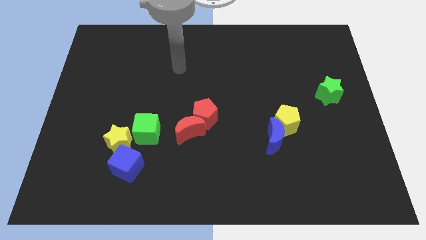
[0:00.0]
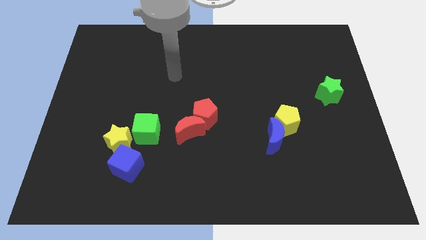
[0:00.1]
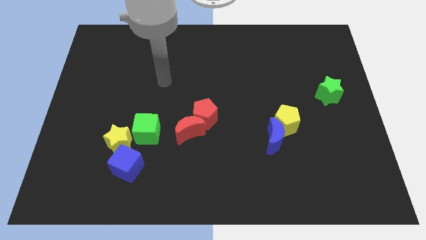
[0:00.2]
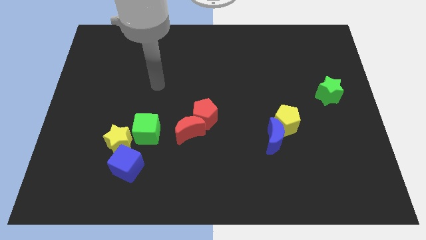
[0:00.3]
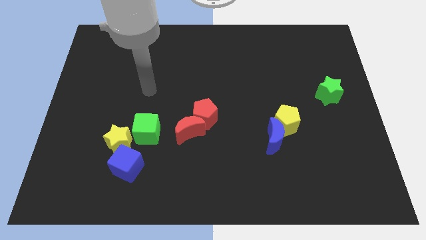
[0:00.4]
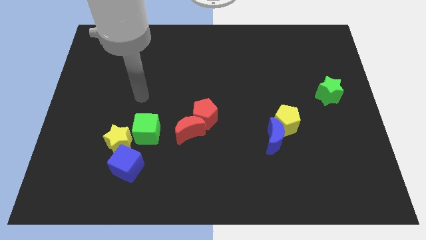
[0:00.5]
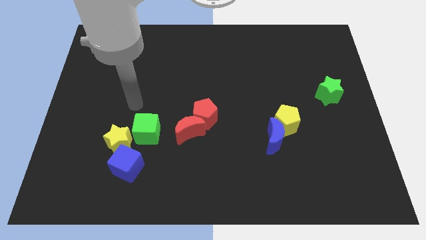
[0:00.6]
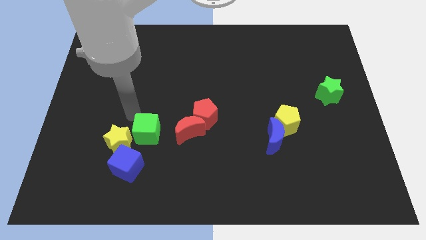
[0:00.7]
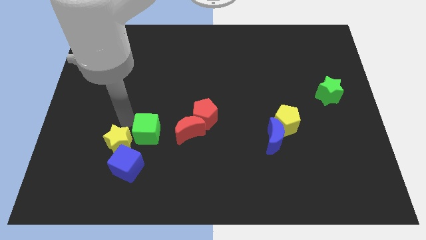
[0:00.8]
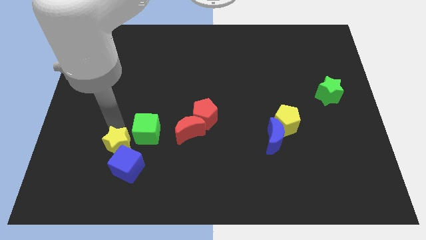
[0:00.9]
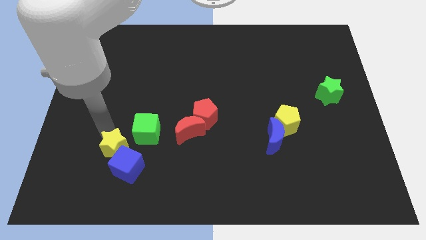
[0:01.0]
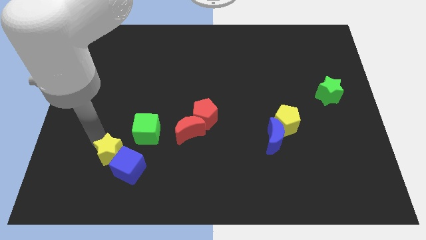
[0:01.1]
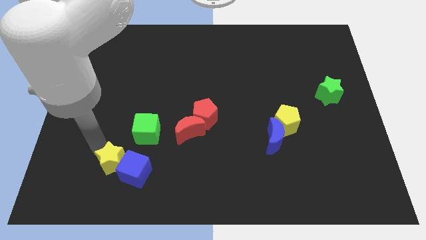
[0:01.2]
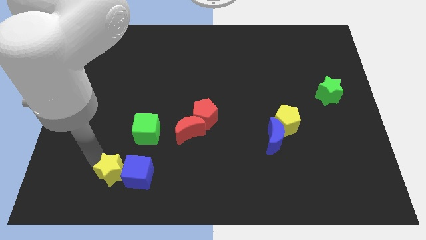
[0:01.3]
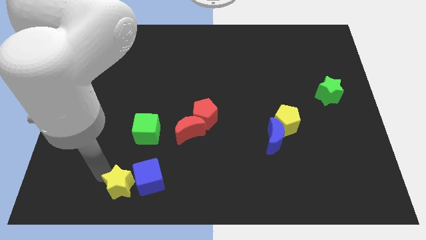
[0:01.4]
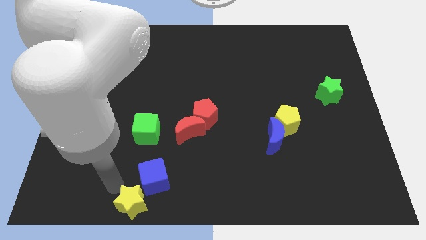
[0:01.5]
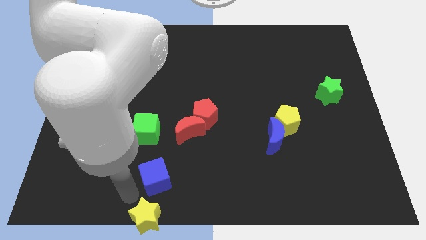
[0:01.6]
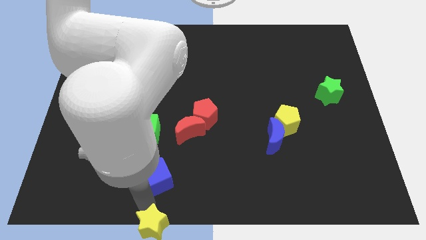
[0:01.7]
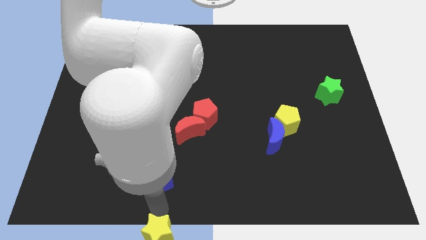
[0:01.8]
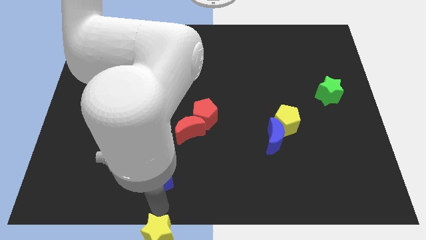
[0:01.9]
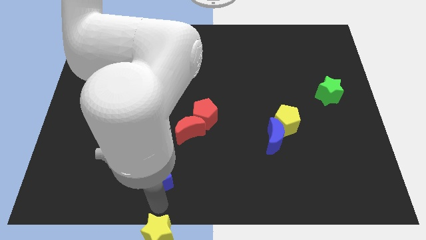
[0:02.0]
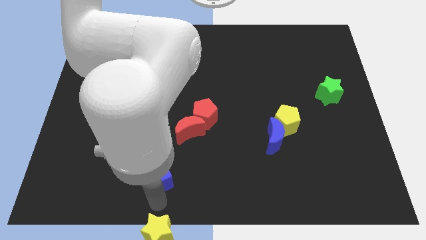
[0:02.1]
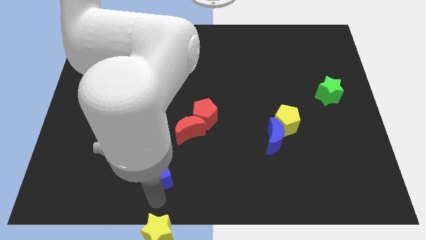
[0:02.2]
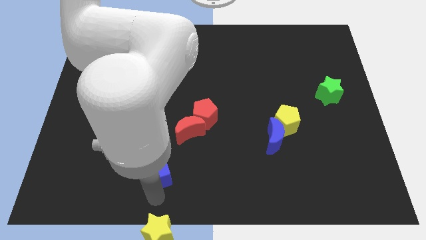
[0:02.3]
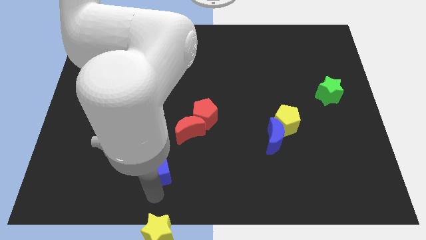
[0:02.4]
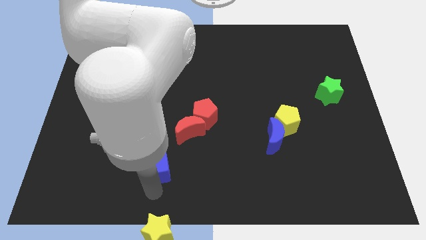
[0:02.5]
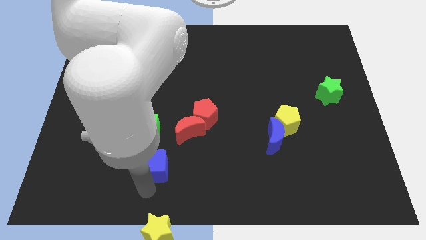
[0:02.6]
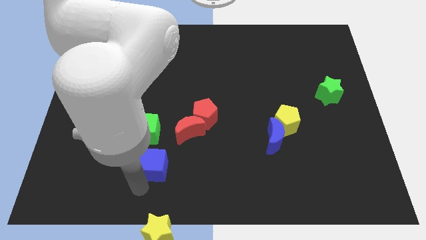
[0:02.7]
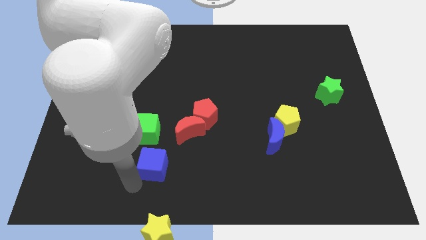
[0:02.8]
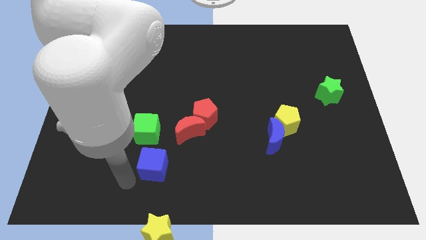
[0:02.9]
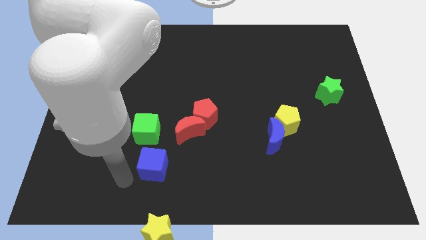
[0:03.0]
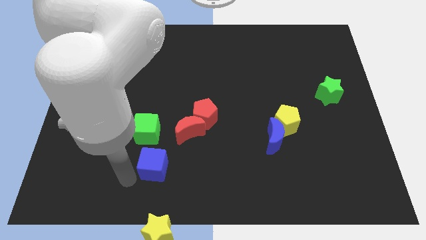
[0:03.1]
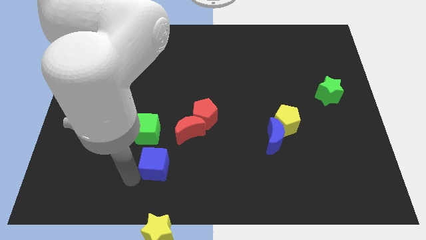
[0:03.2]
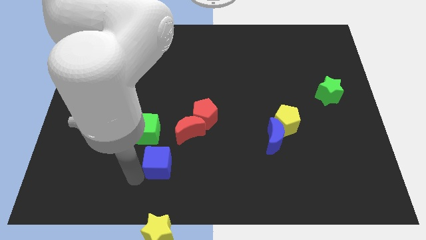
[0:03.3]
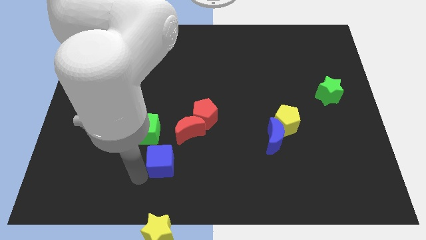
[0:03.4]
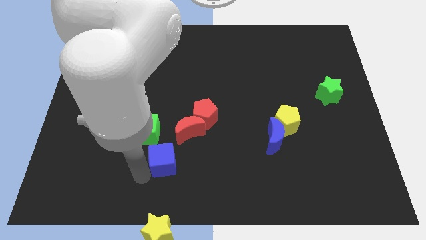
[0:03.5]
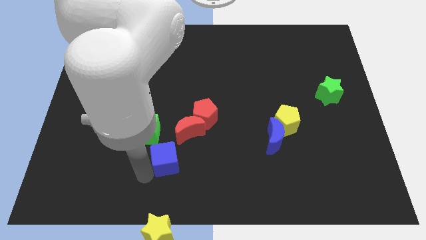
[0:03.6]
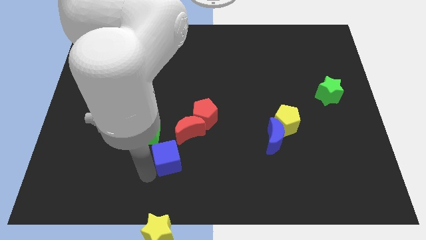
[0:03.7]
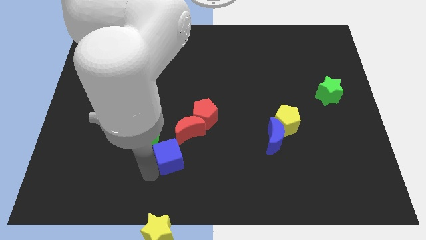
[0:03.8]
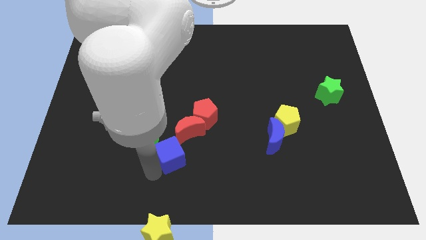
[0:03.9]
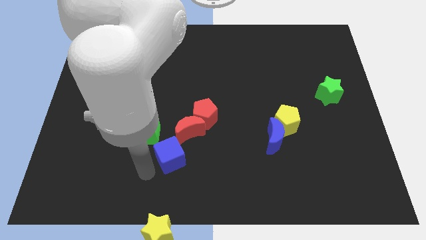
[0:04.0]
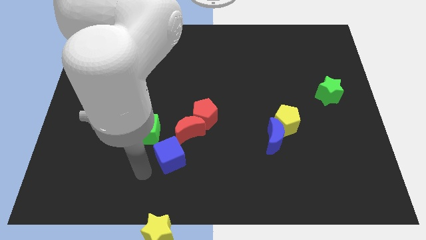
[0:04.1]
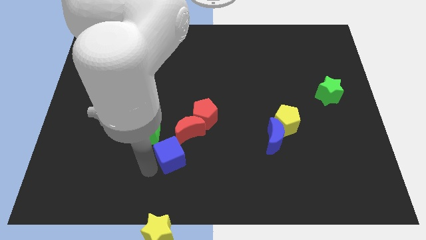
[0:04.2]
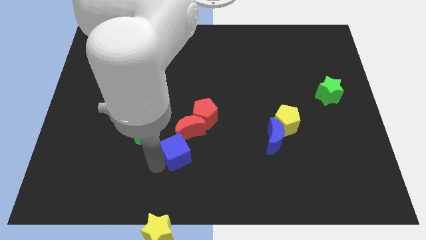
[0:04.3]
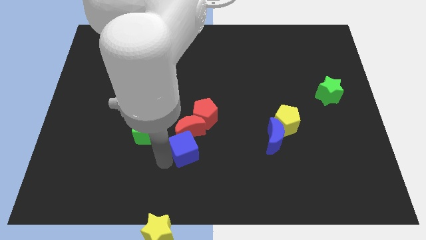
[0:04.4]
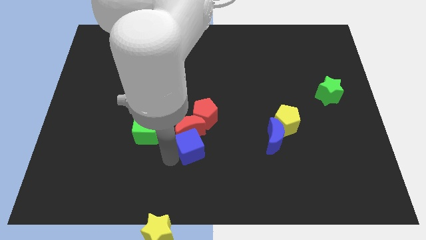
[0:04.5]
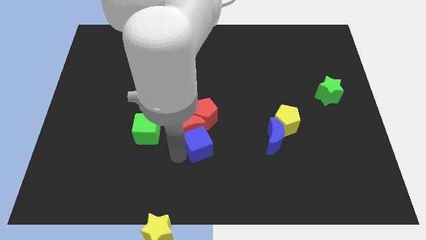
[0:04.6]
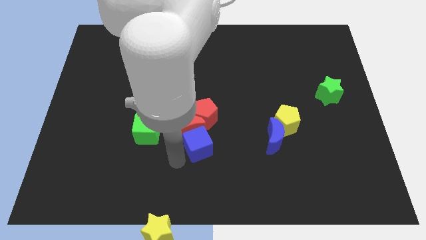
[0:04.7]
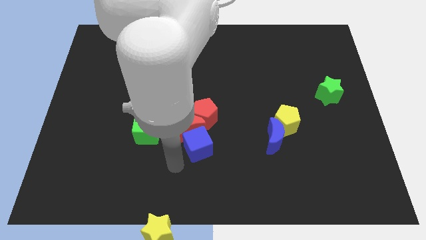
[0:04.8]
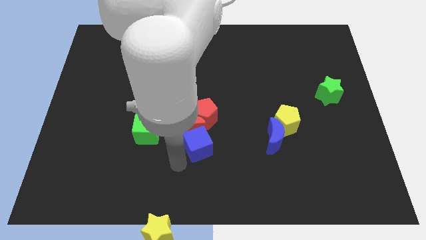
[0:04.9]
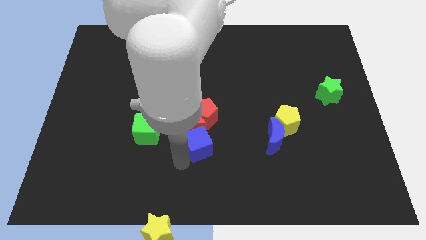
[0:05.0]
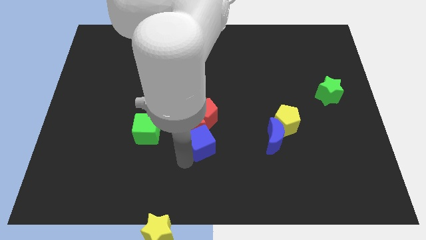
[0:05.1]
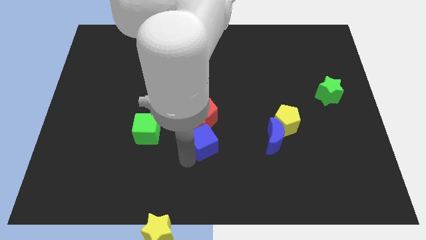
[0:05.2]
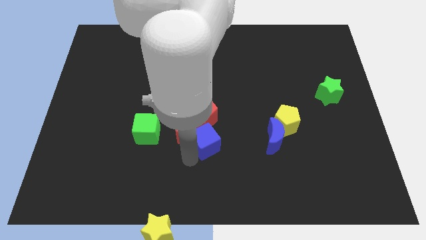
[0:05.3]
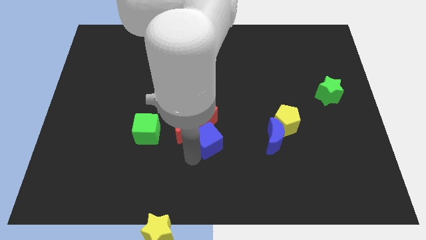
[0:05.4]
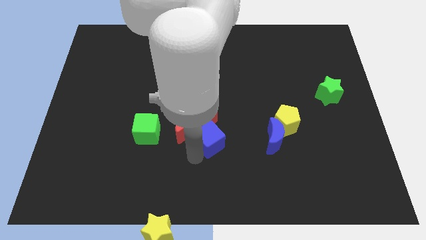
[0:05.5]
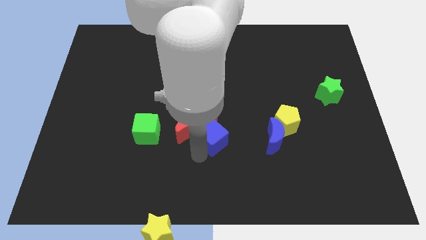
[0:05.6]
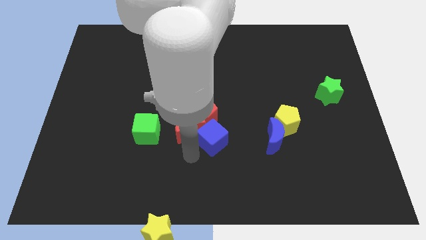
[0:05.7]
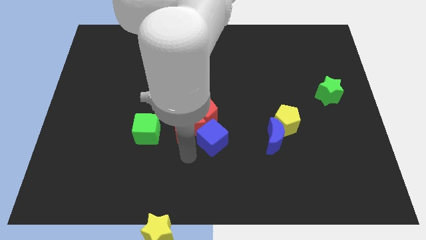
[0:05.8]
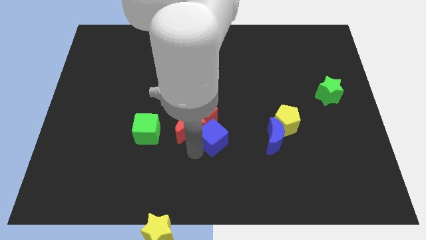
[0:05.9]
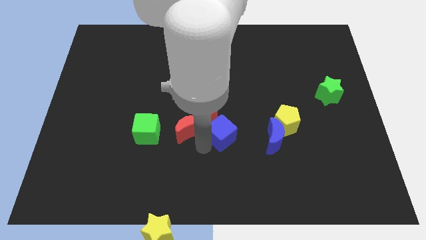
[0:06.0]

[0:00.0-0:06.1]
put the blue cube just left of the yellow pentagon

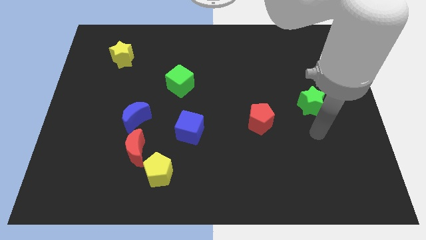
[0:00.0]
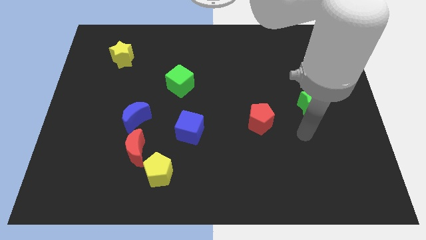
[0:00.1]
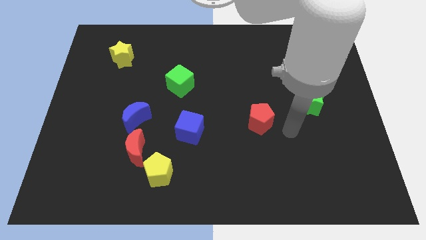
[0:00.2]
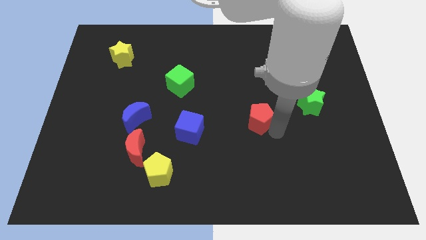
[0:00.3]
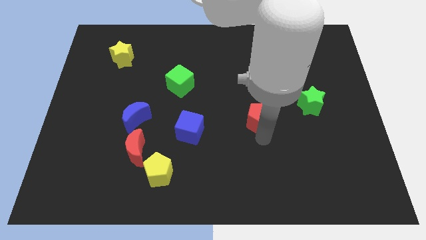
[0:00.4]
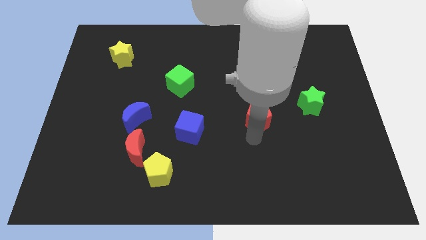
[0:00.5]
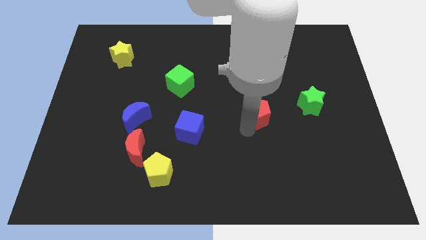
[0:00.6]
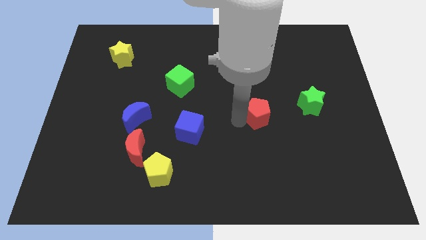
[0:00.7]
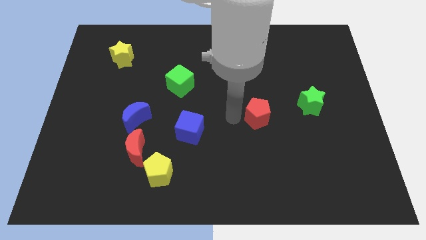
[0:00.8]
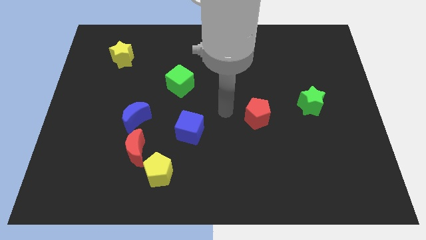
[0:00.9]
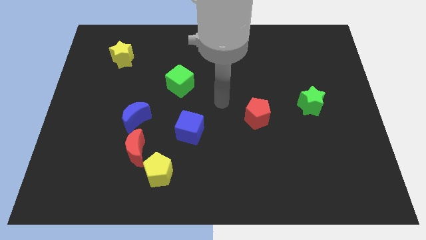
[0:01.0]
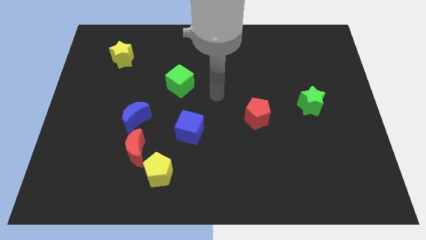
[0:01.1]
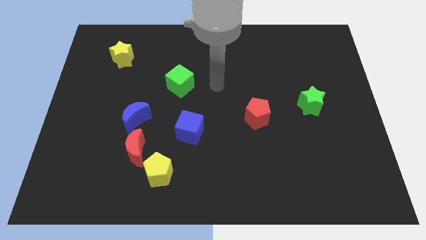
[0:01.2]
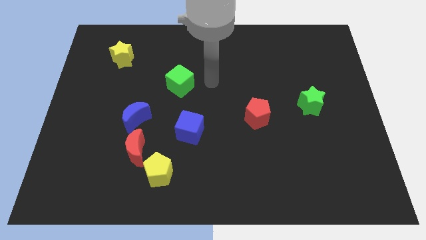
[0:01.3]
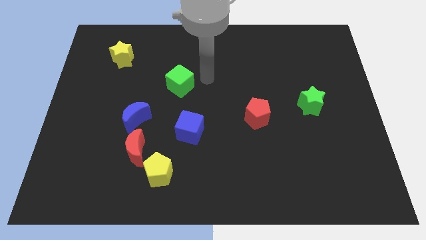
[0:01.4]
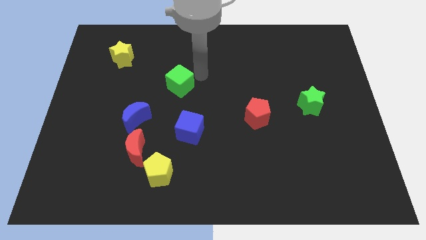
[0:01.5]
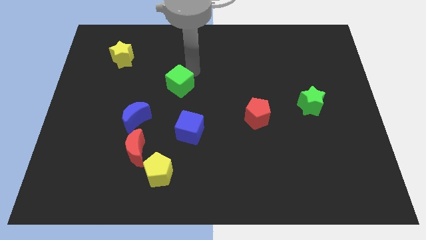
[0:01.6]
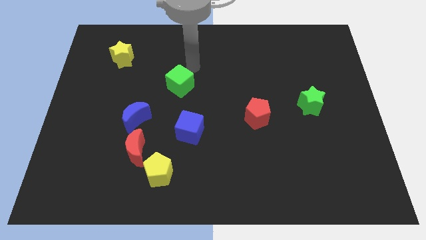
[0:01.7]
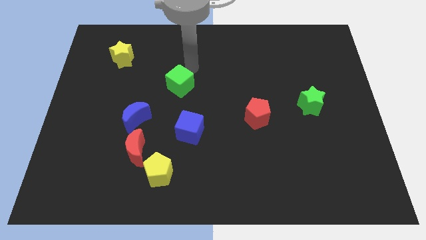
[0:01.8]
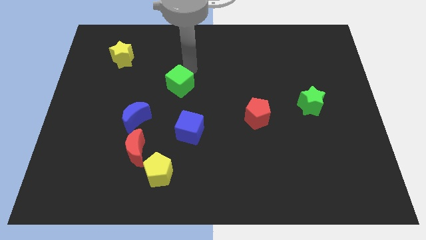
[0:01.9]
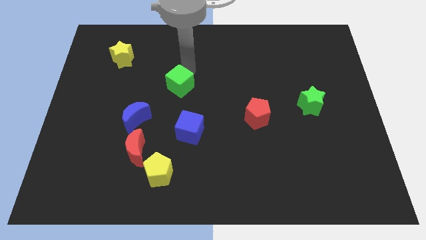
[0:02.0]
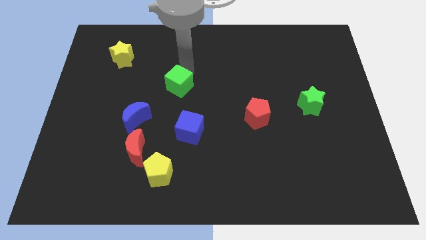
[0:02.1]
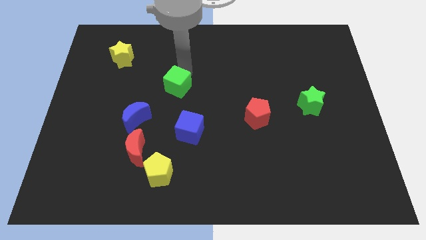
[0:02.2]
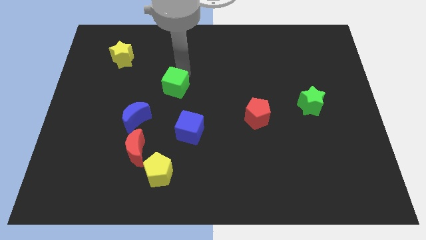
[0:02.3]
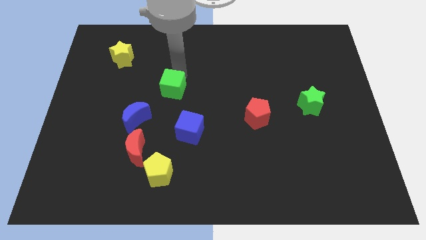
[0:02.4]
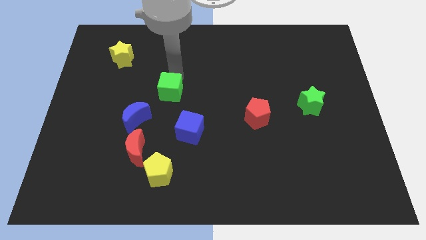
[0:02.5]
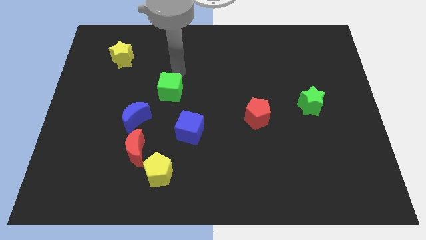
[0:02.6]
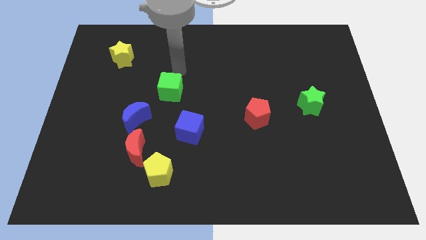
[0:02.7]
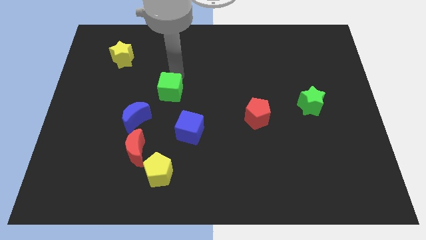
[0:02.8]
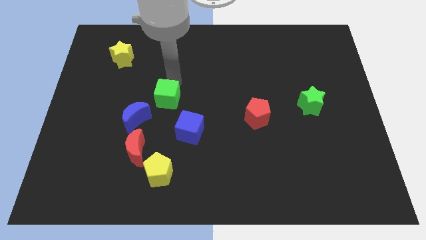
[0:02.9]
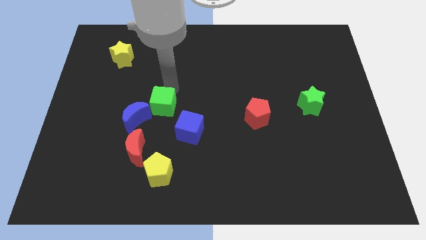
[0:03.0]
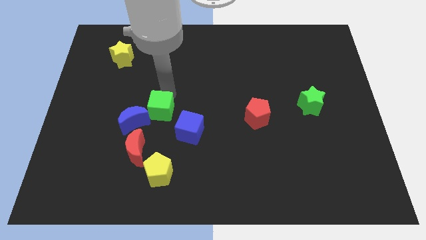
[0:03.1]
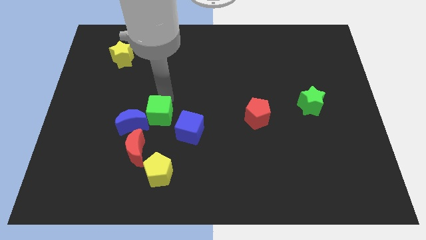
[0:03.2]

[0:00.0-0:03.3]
put the green cube just left of the blue cube
